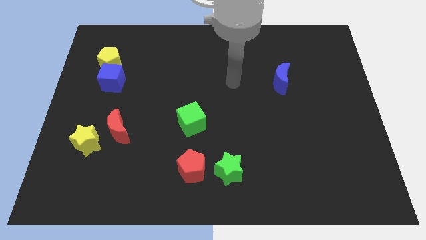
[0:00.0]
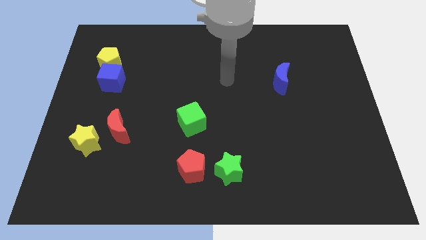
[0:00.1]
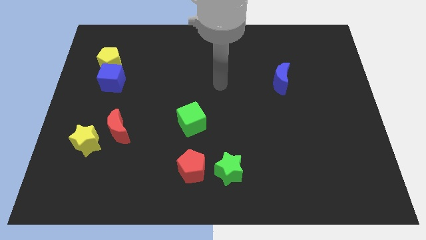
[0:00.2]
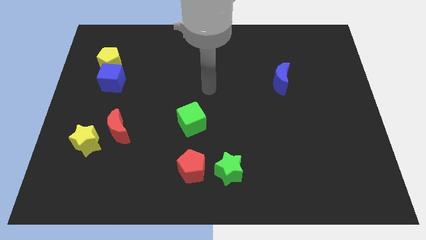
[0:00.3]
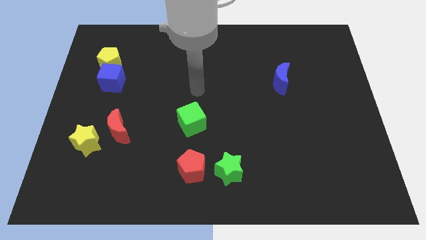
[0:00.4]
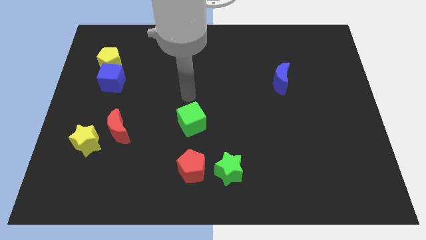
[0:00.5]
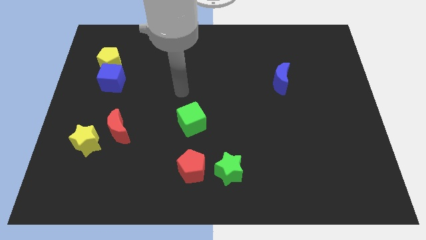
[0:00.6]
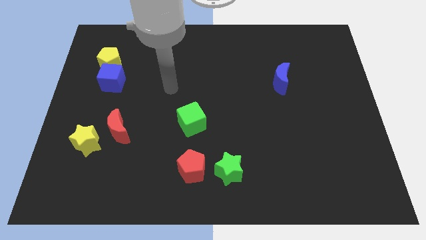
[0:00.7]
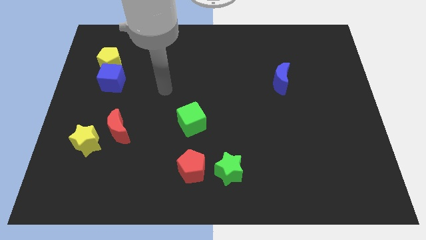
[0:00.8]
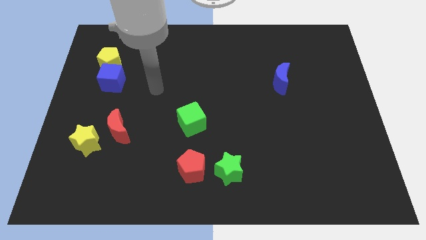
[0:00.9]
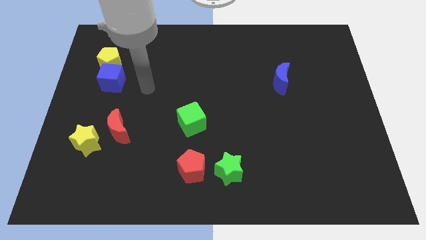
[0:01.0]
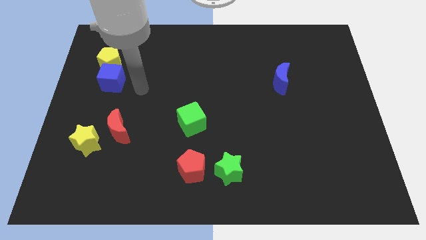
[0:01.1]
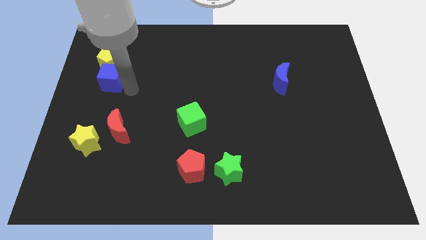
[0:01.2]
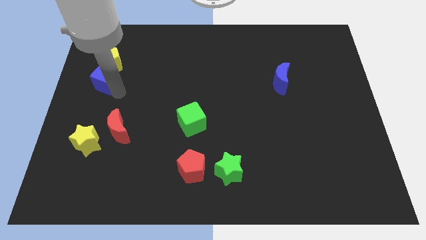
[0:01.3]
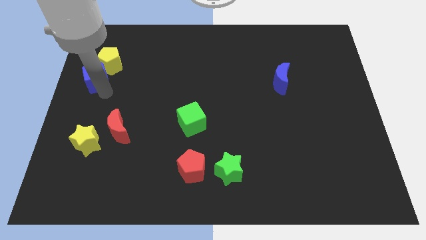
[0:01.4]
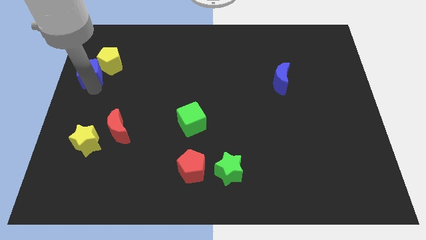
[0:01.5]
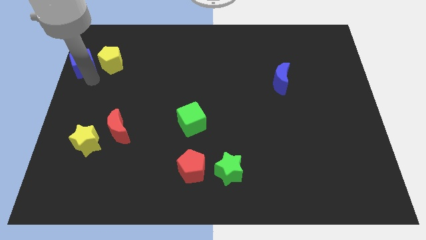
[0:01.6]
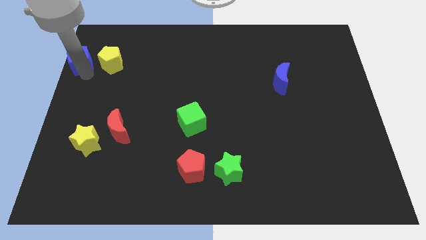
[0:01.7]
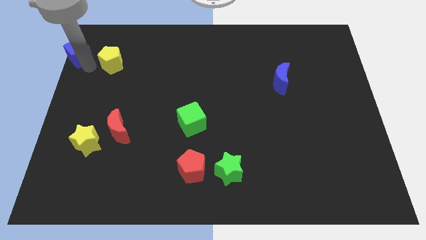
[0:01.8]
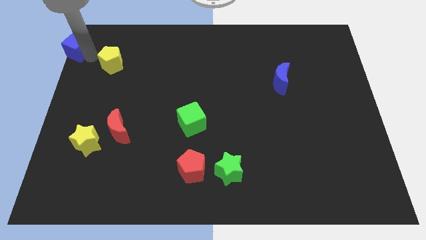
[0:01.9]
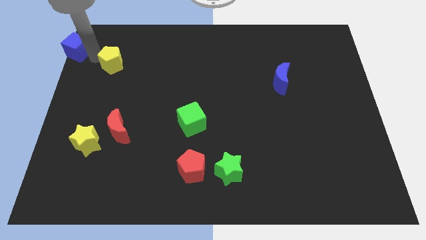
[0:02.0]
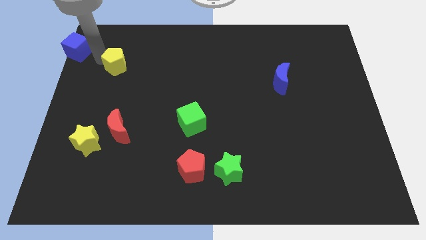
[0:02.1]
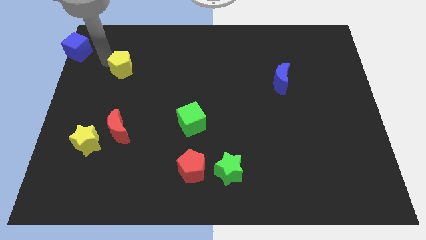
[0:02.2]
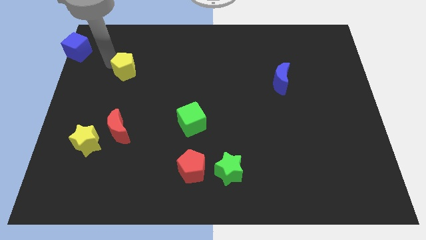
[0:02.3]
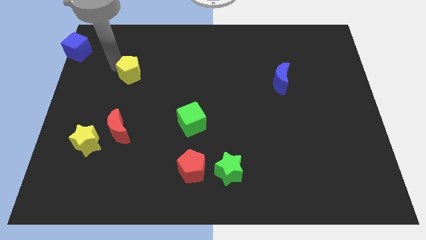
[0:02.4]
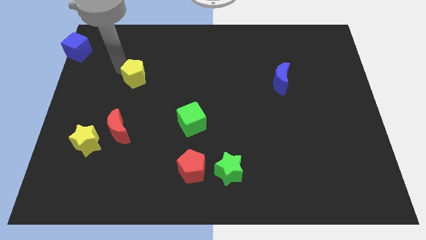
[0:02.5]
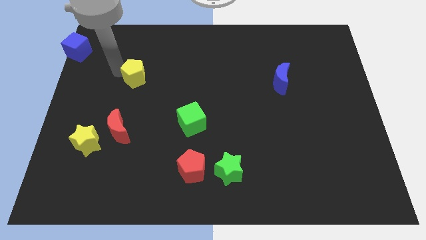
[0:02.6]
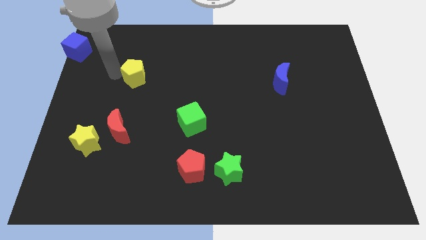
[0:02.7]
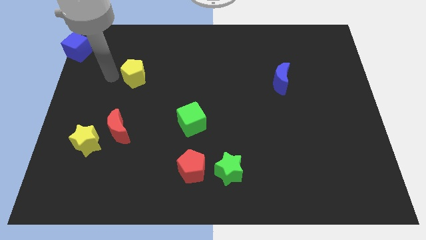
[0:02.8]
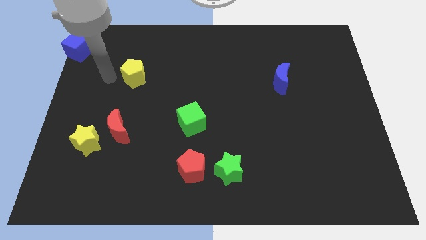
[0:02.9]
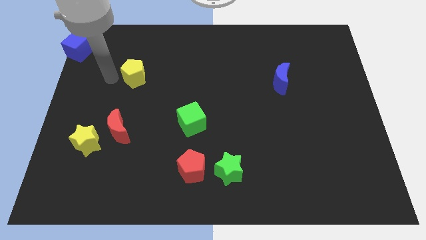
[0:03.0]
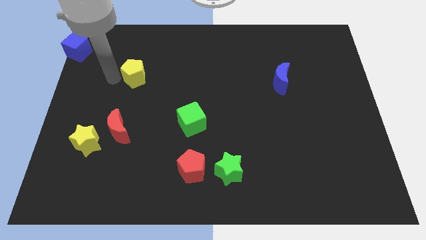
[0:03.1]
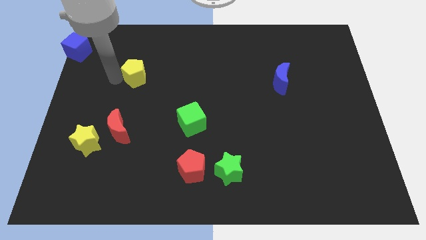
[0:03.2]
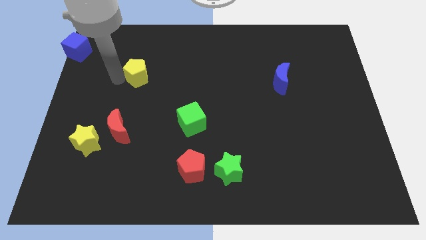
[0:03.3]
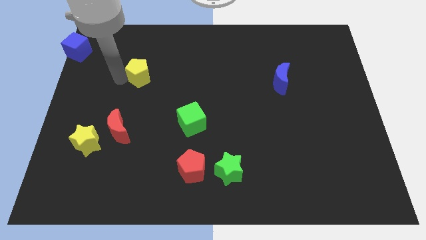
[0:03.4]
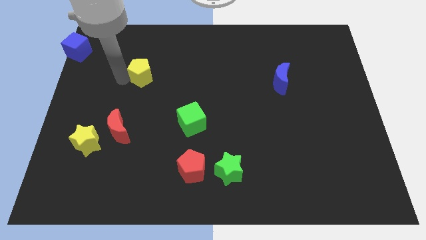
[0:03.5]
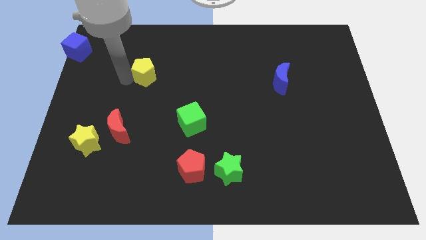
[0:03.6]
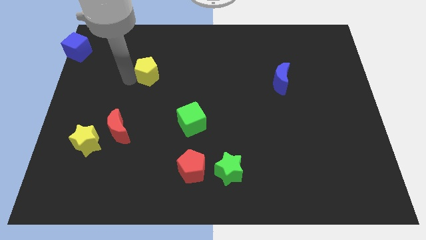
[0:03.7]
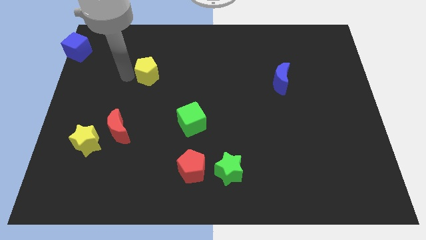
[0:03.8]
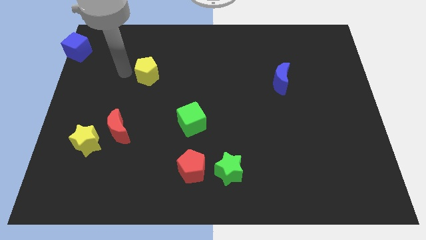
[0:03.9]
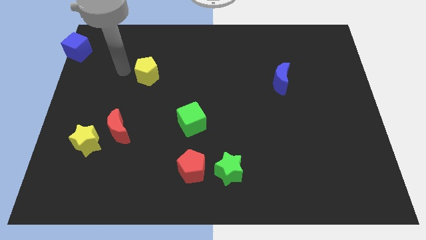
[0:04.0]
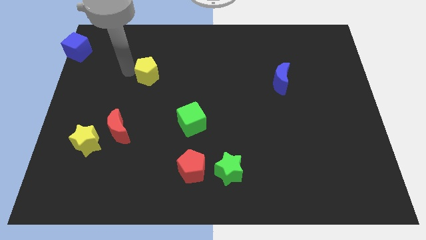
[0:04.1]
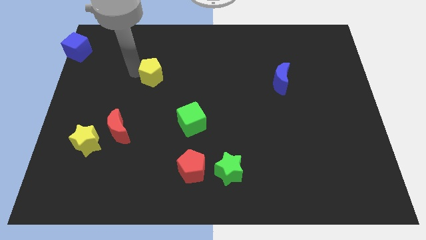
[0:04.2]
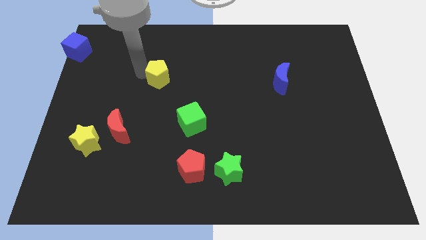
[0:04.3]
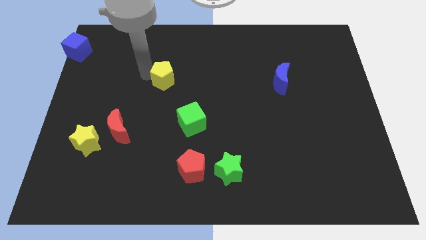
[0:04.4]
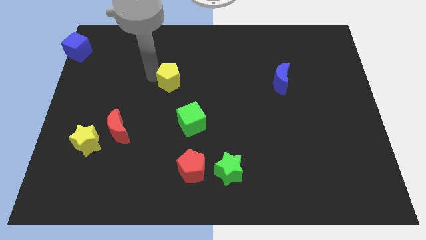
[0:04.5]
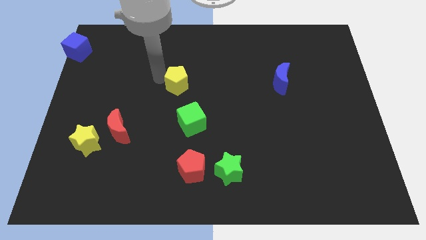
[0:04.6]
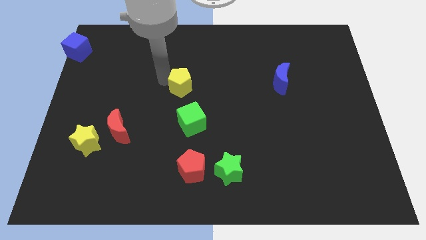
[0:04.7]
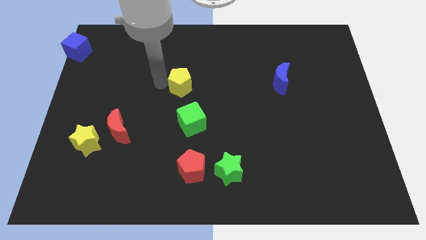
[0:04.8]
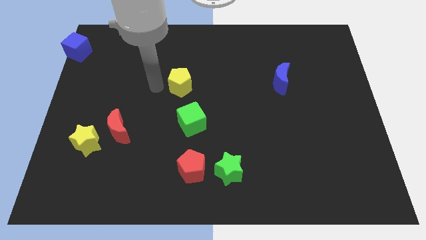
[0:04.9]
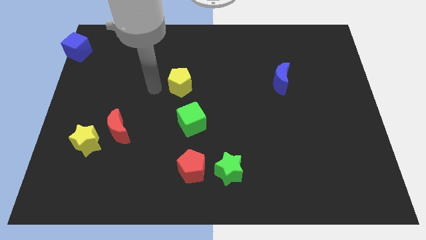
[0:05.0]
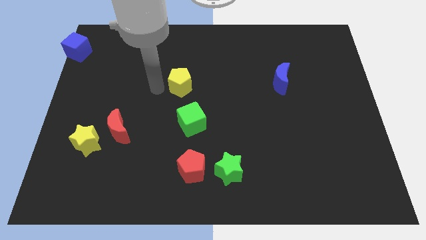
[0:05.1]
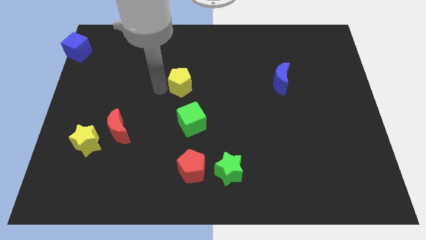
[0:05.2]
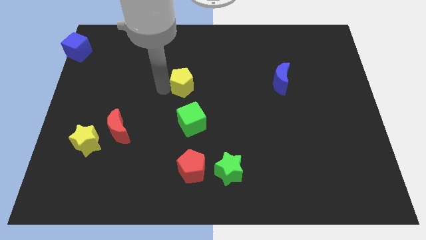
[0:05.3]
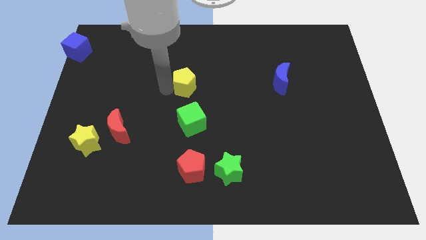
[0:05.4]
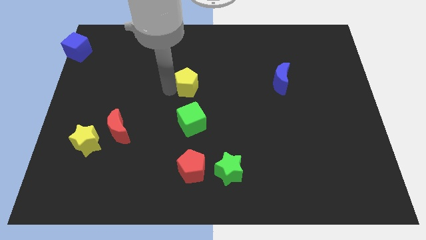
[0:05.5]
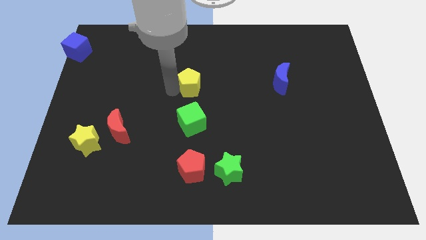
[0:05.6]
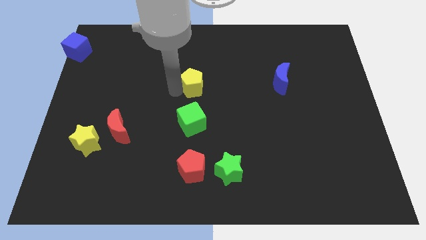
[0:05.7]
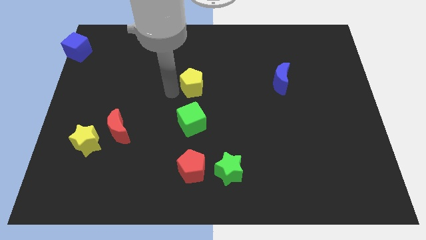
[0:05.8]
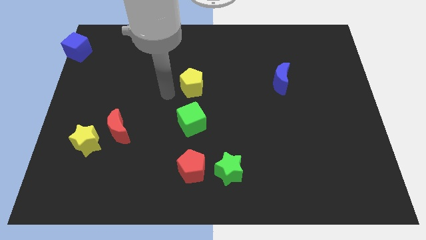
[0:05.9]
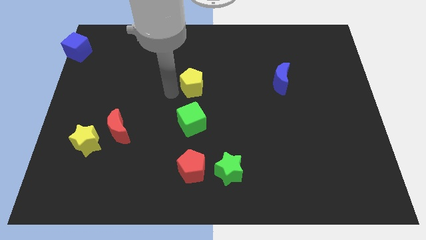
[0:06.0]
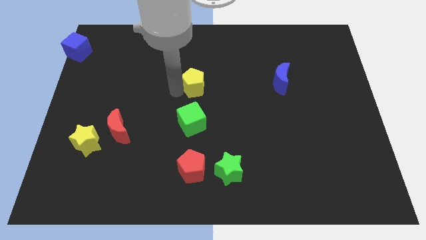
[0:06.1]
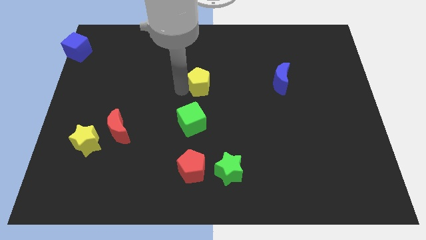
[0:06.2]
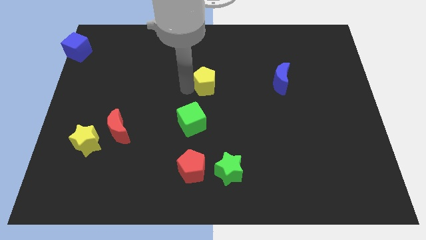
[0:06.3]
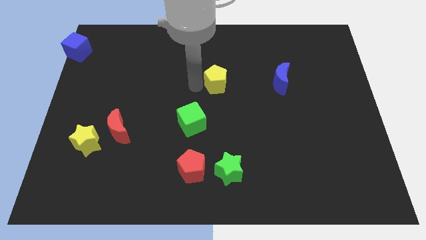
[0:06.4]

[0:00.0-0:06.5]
push the yellow pentagon just left of the blue moon
